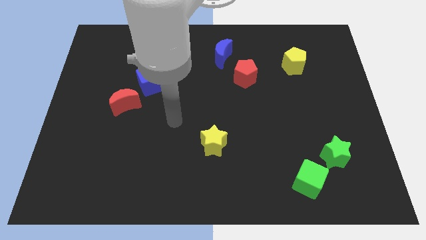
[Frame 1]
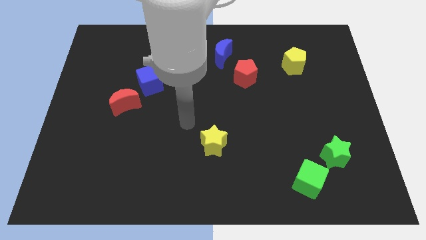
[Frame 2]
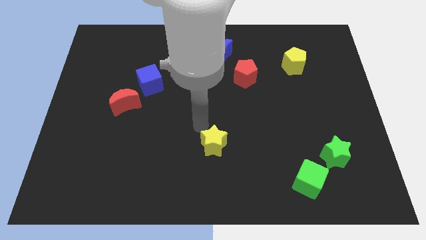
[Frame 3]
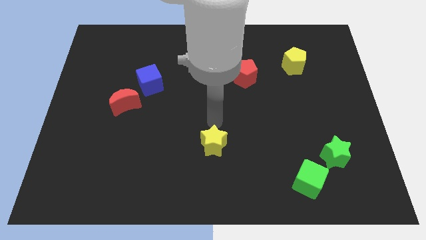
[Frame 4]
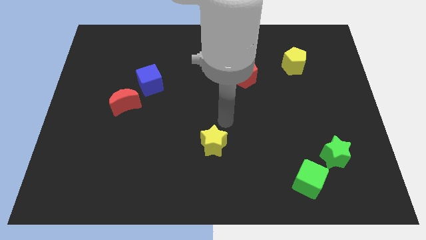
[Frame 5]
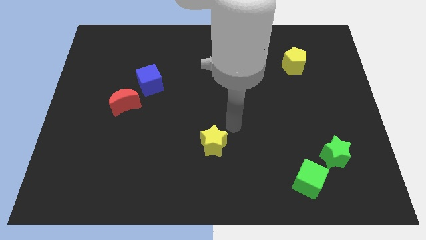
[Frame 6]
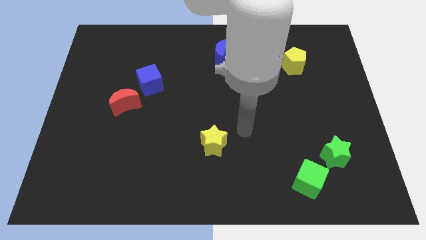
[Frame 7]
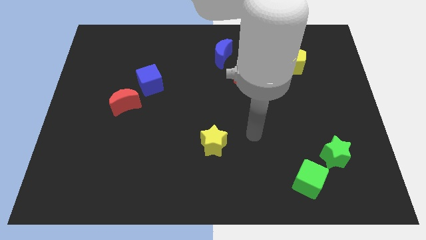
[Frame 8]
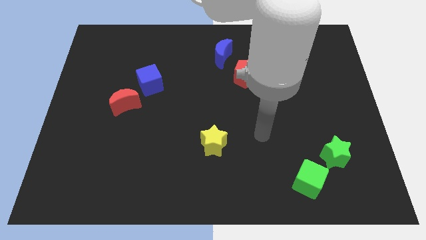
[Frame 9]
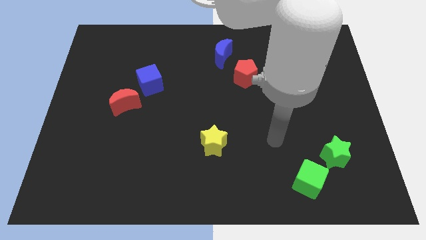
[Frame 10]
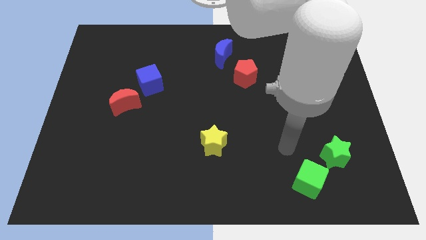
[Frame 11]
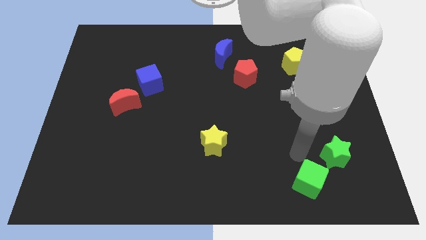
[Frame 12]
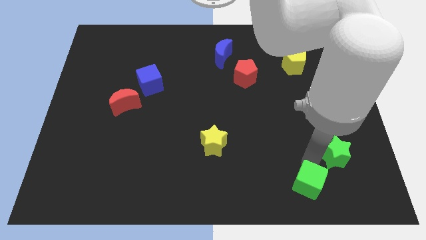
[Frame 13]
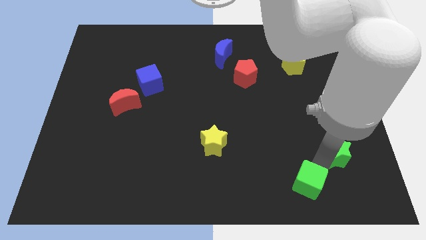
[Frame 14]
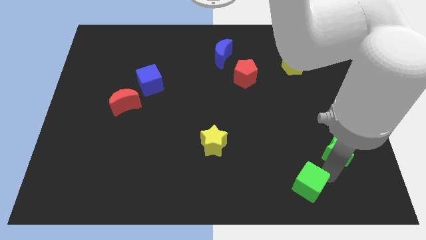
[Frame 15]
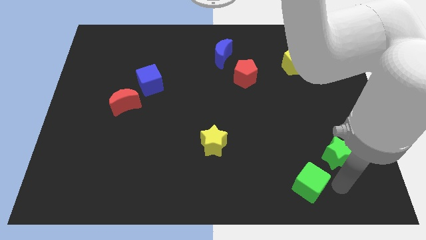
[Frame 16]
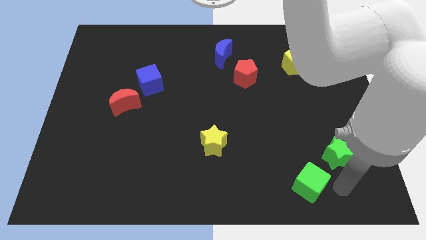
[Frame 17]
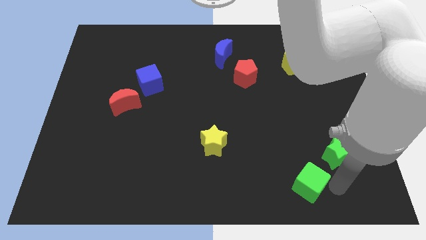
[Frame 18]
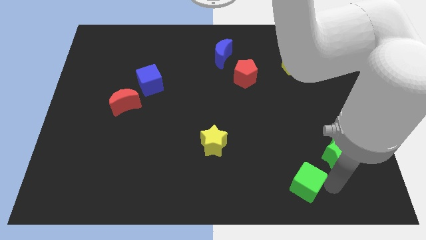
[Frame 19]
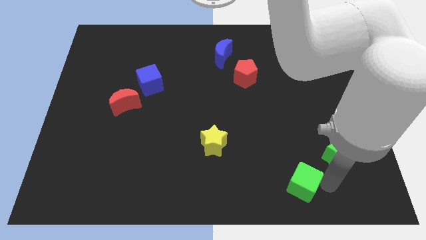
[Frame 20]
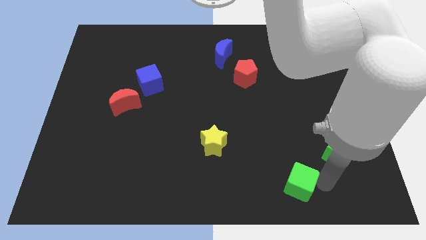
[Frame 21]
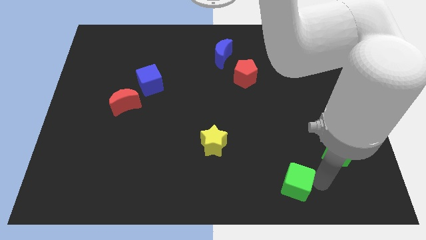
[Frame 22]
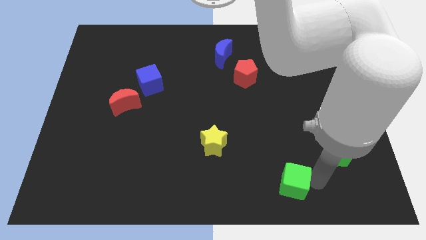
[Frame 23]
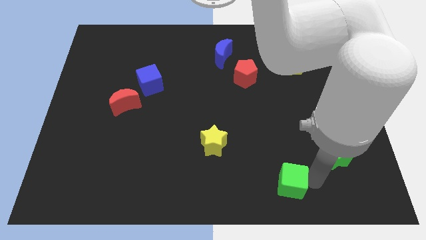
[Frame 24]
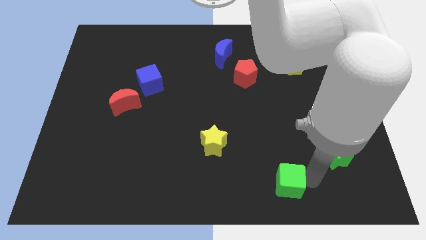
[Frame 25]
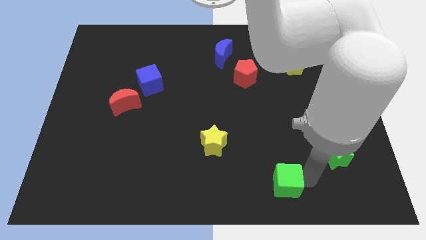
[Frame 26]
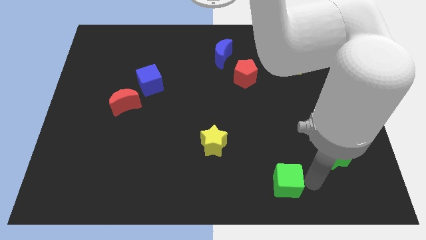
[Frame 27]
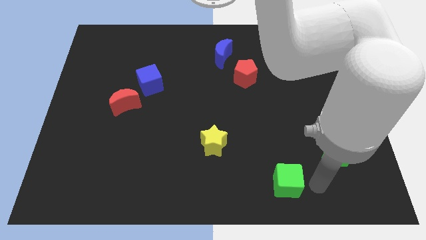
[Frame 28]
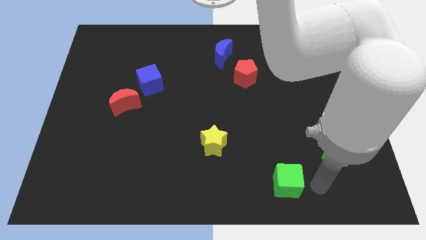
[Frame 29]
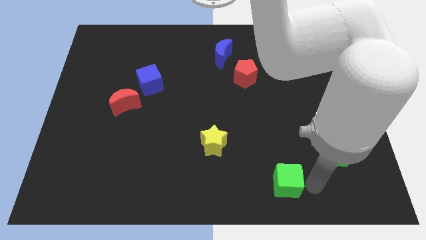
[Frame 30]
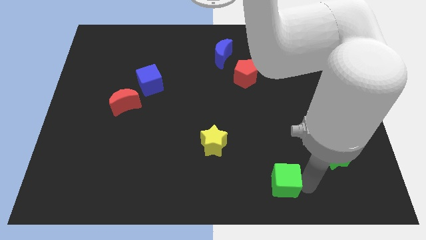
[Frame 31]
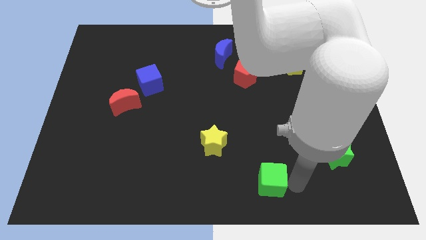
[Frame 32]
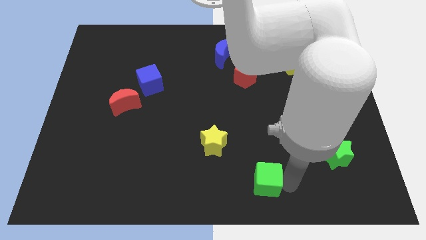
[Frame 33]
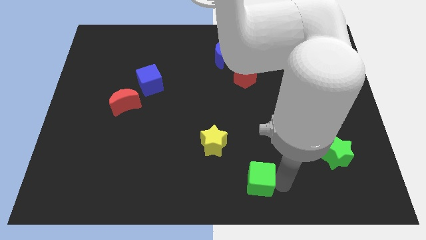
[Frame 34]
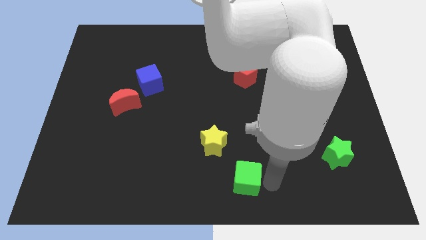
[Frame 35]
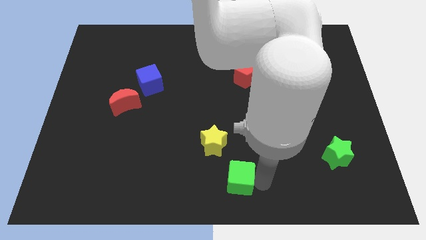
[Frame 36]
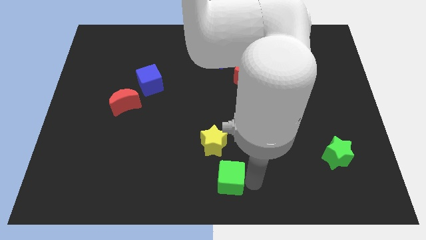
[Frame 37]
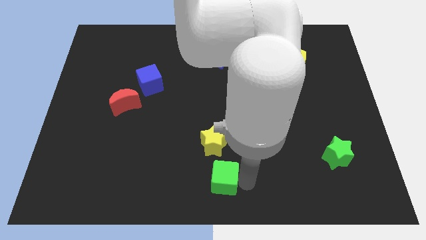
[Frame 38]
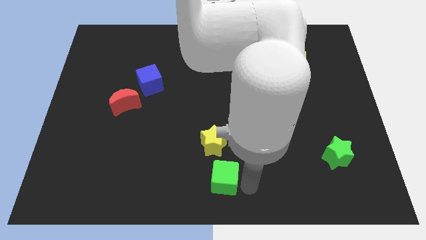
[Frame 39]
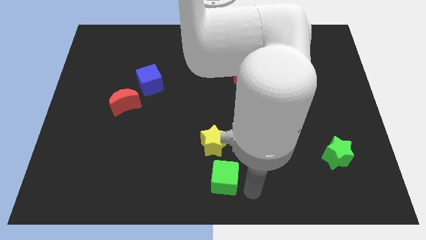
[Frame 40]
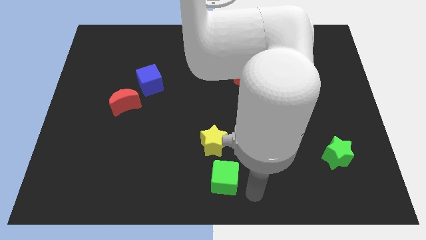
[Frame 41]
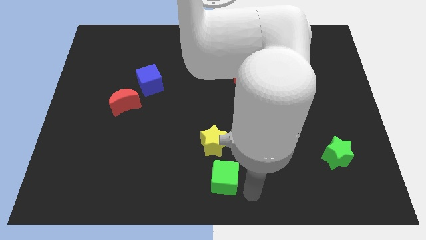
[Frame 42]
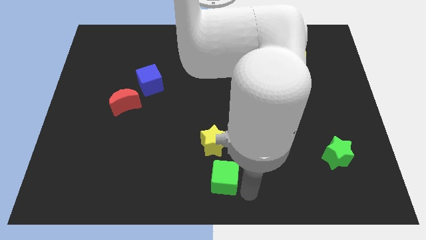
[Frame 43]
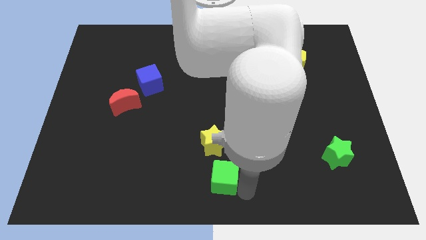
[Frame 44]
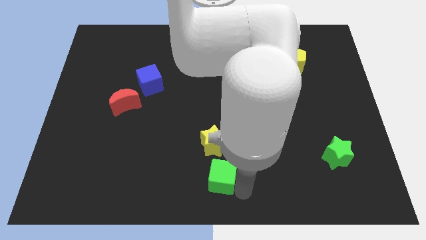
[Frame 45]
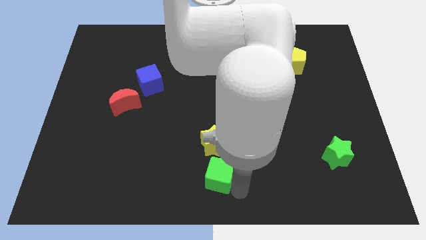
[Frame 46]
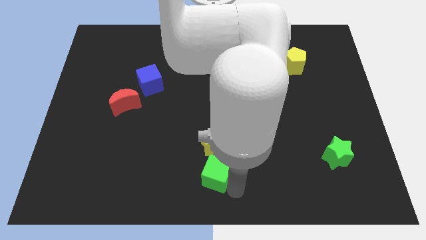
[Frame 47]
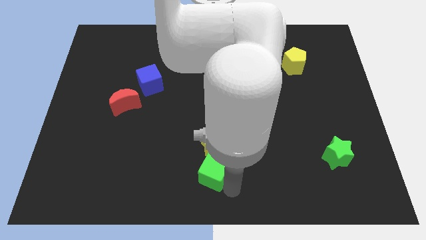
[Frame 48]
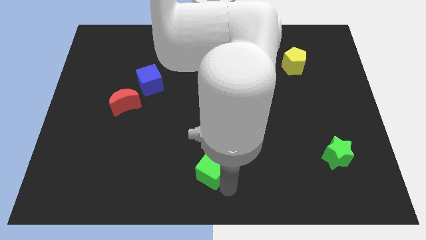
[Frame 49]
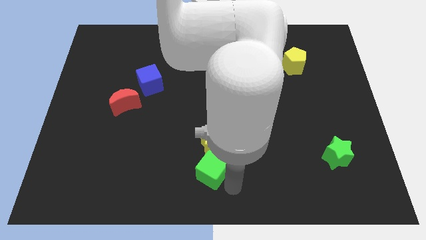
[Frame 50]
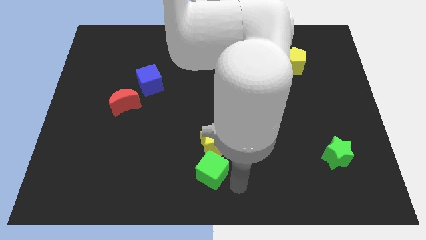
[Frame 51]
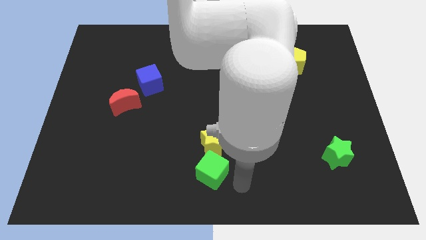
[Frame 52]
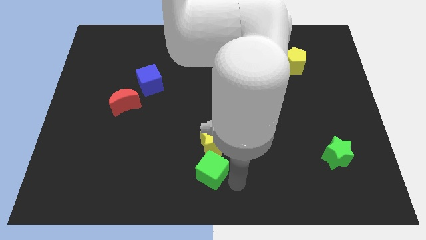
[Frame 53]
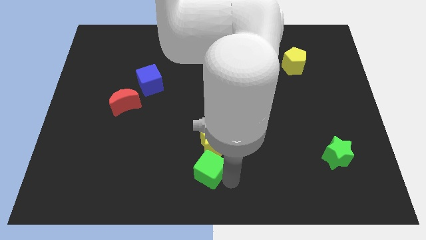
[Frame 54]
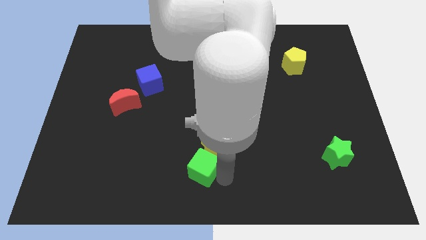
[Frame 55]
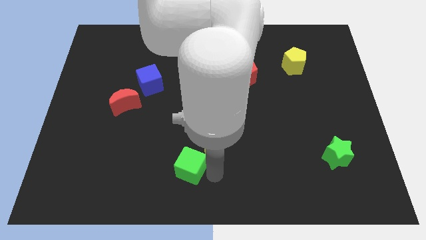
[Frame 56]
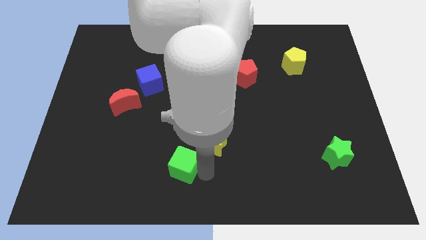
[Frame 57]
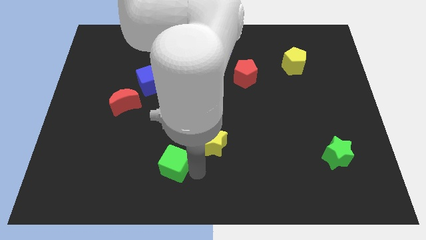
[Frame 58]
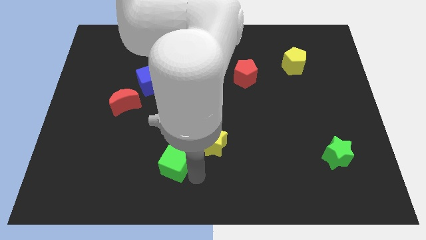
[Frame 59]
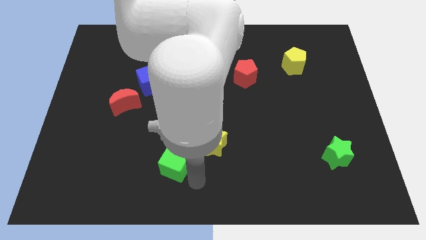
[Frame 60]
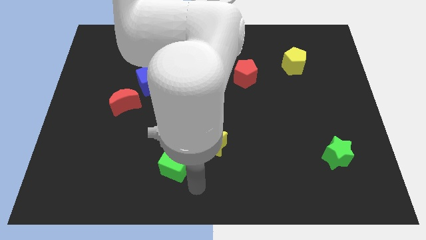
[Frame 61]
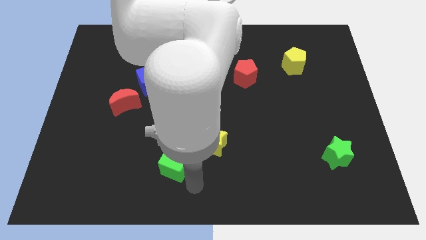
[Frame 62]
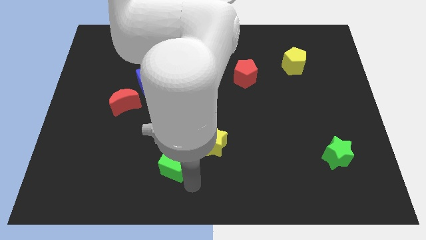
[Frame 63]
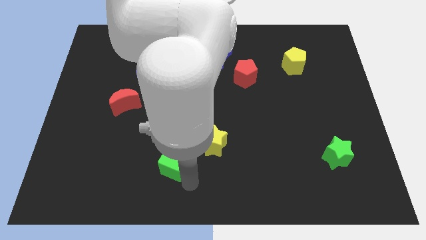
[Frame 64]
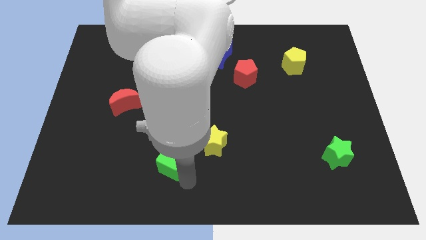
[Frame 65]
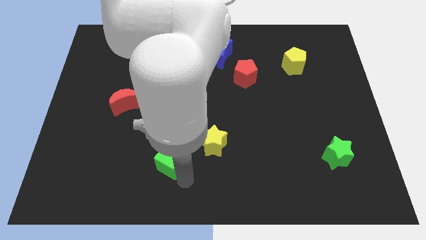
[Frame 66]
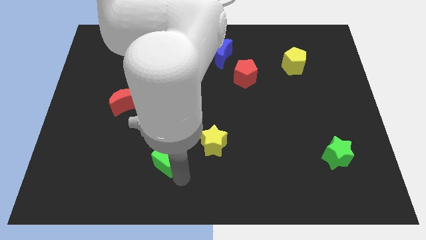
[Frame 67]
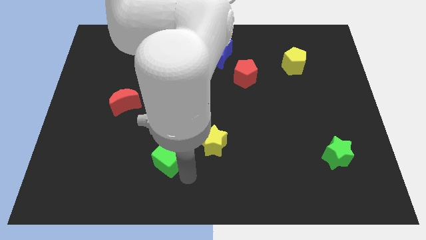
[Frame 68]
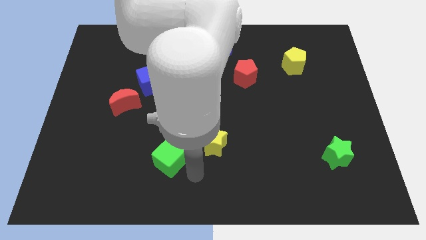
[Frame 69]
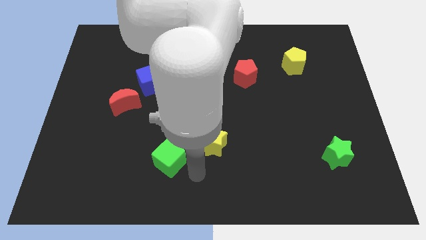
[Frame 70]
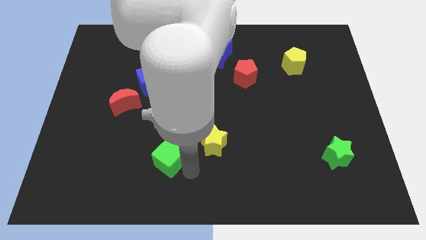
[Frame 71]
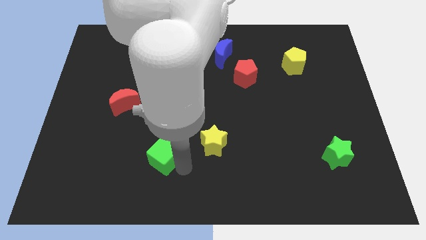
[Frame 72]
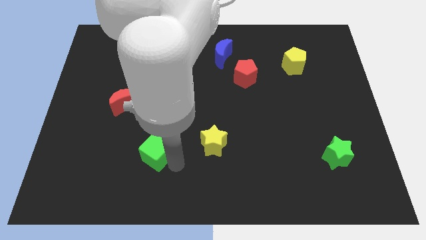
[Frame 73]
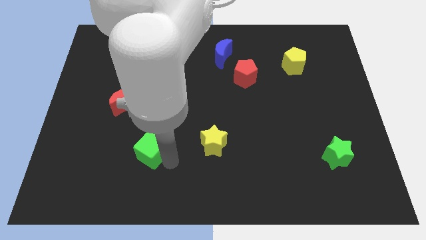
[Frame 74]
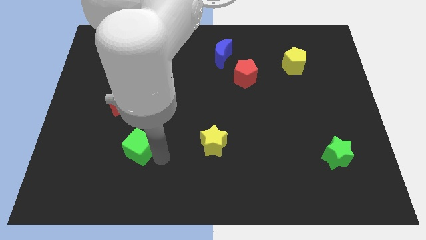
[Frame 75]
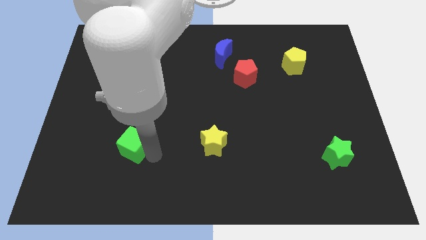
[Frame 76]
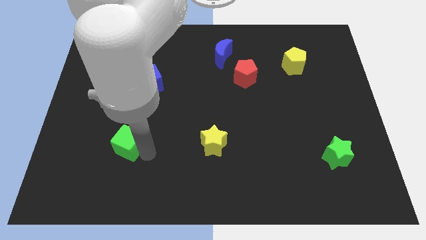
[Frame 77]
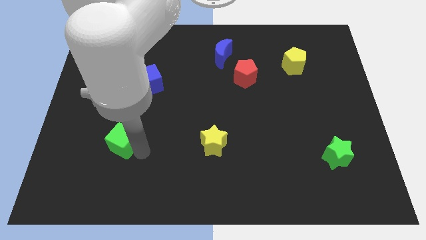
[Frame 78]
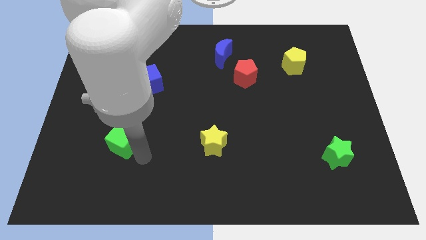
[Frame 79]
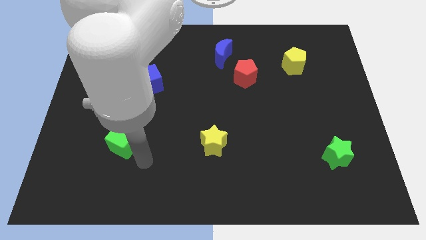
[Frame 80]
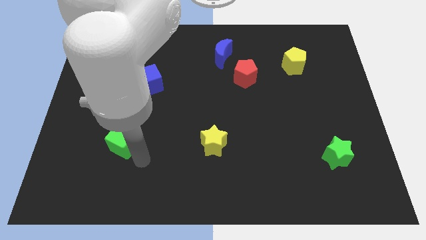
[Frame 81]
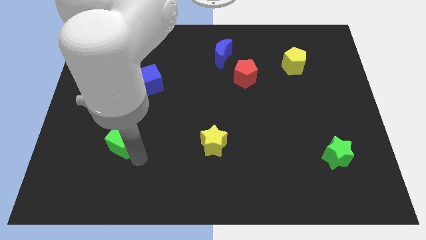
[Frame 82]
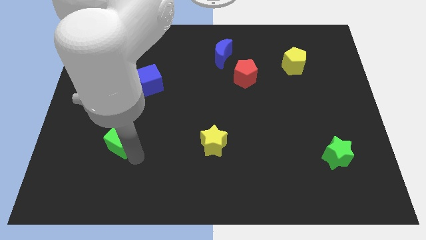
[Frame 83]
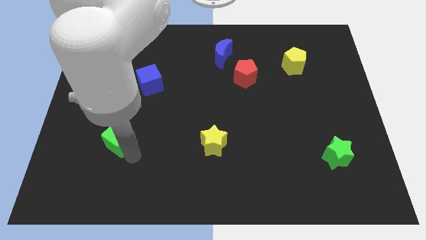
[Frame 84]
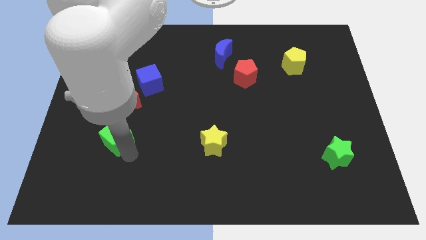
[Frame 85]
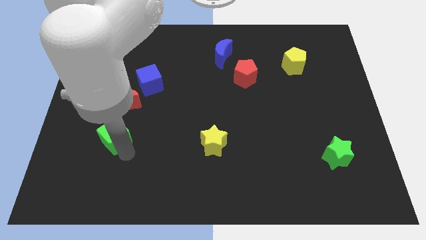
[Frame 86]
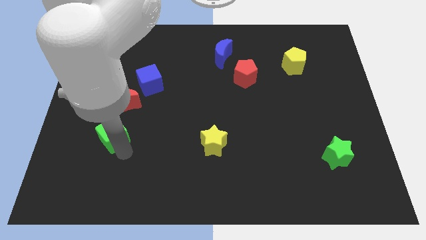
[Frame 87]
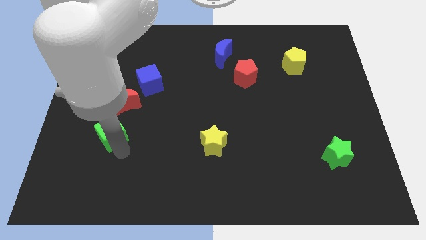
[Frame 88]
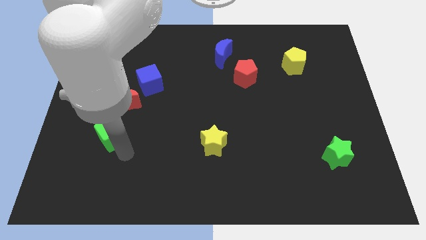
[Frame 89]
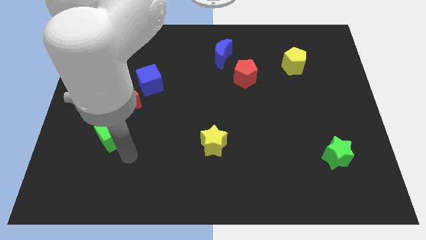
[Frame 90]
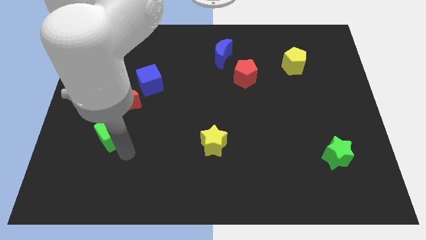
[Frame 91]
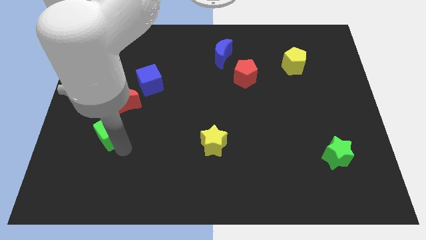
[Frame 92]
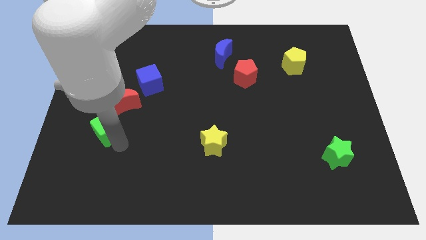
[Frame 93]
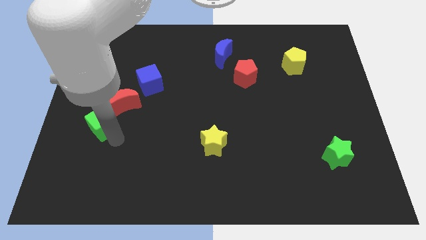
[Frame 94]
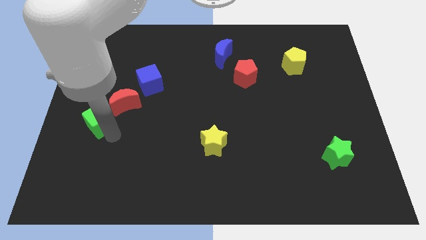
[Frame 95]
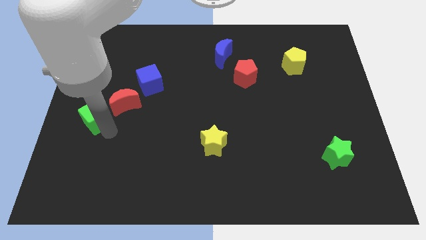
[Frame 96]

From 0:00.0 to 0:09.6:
put the green cube to the left side
